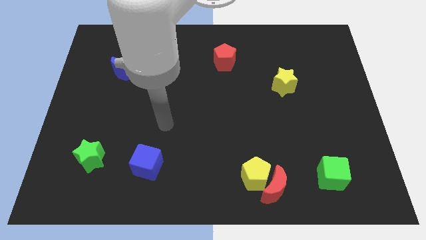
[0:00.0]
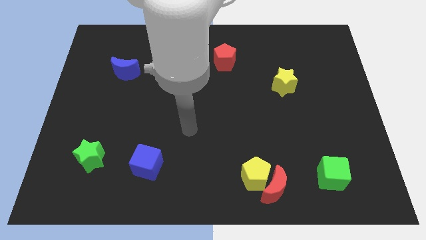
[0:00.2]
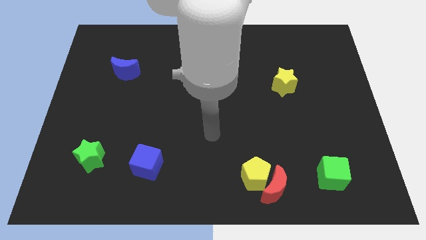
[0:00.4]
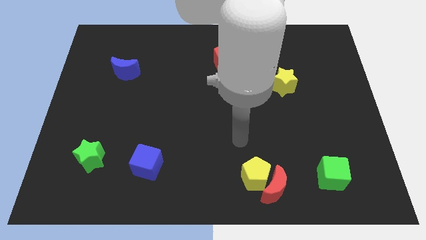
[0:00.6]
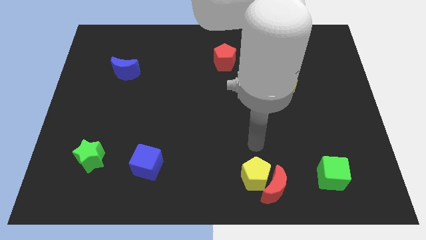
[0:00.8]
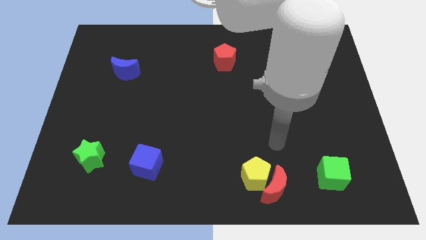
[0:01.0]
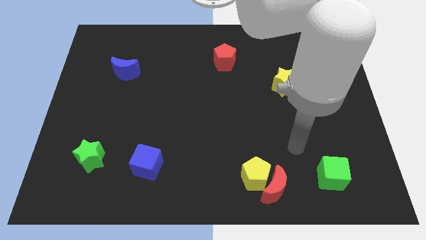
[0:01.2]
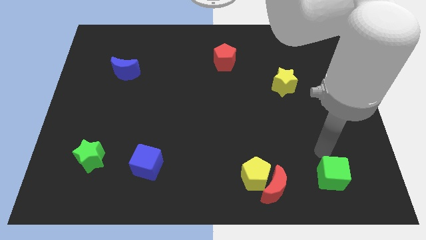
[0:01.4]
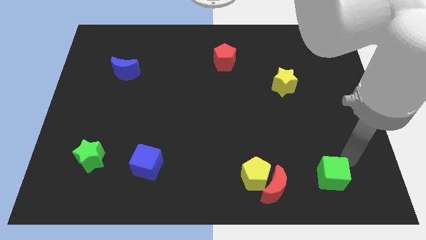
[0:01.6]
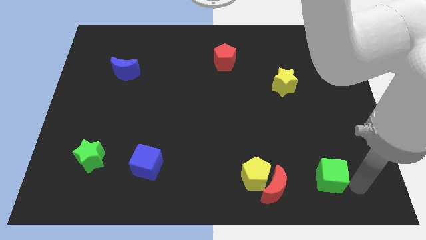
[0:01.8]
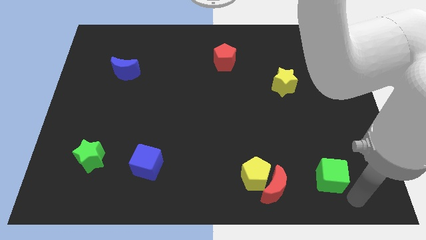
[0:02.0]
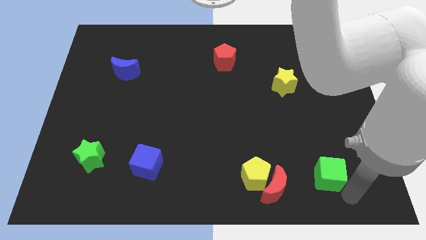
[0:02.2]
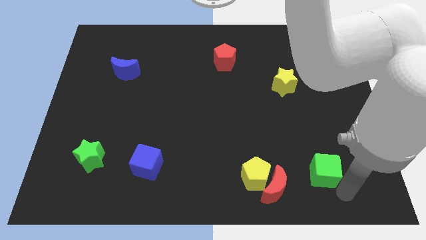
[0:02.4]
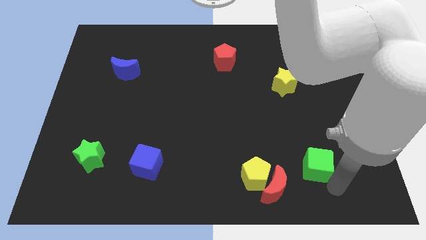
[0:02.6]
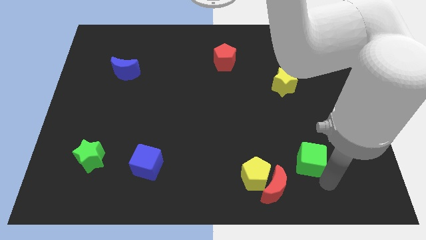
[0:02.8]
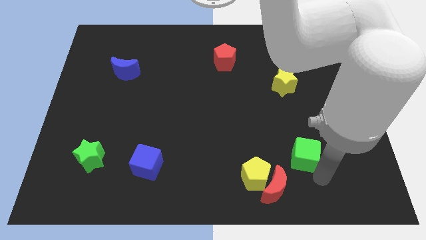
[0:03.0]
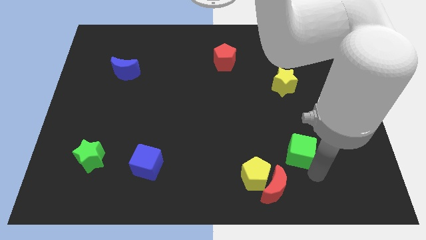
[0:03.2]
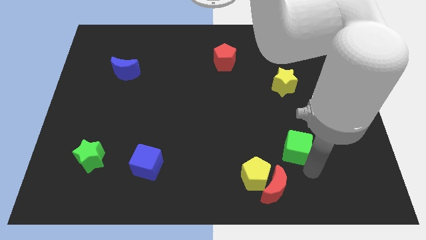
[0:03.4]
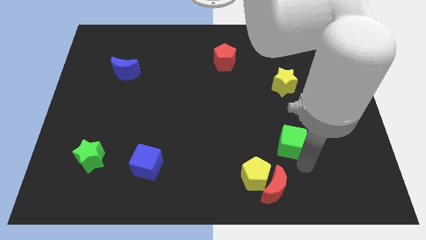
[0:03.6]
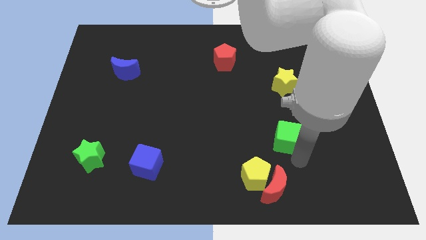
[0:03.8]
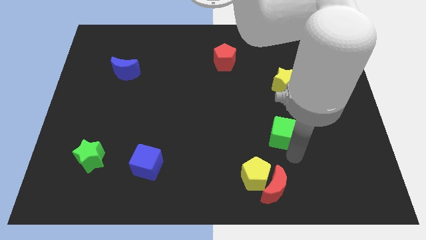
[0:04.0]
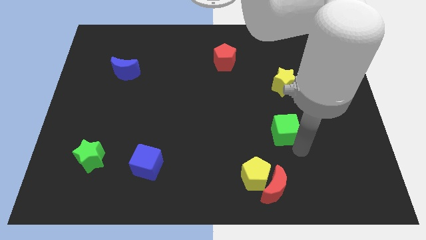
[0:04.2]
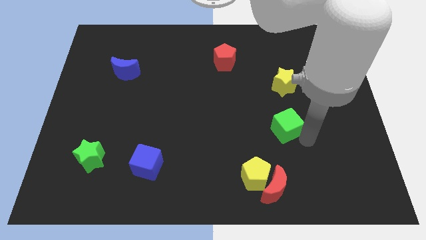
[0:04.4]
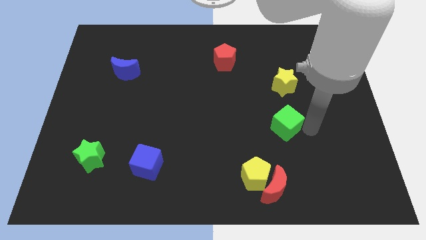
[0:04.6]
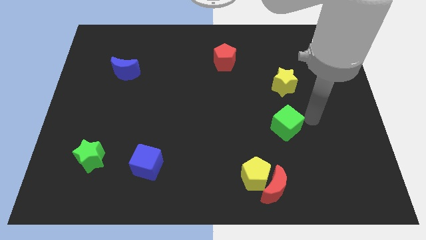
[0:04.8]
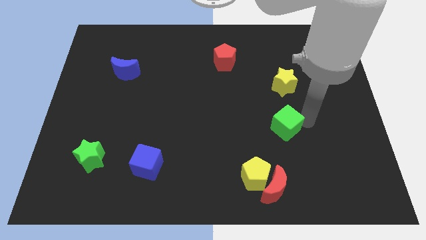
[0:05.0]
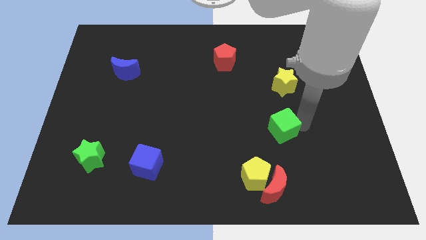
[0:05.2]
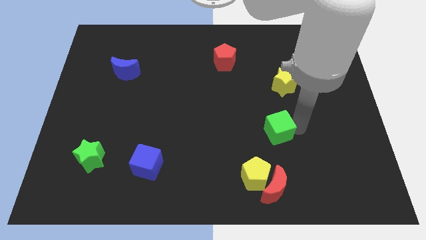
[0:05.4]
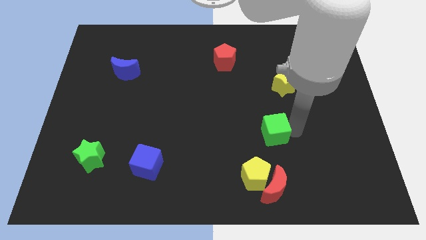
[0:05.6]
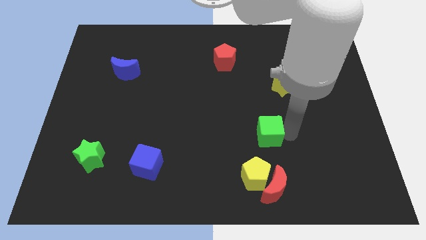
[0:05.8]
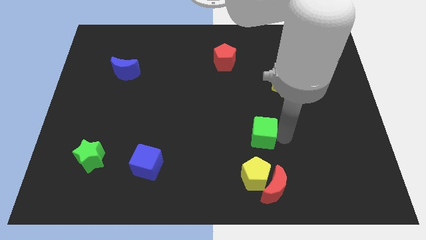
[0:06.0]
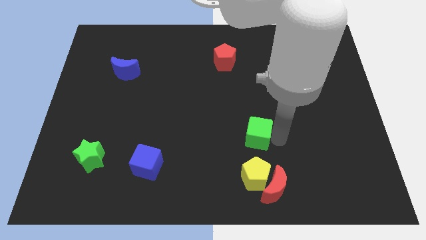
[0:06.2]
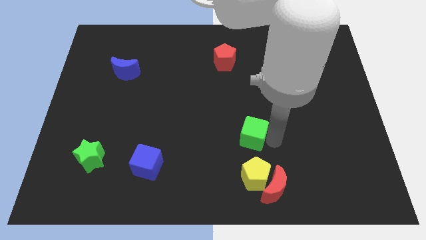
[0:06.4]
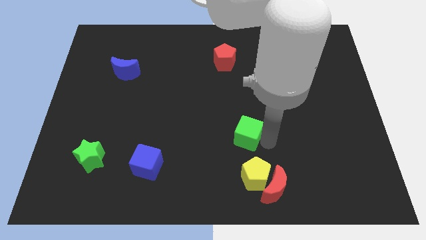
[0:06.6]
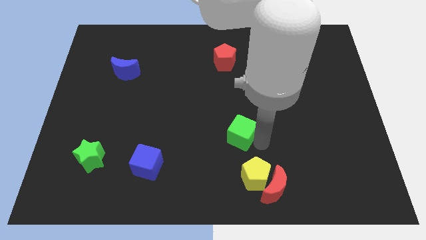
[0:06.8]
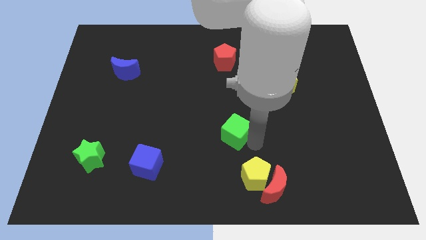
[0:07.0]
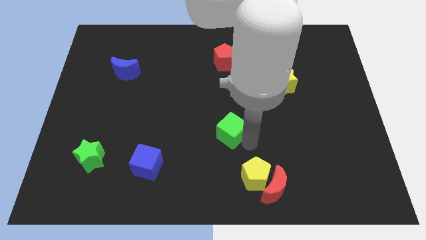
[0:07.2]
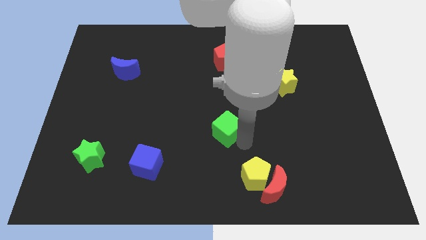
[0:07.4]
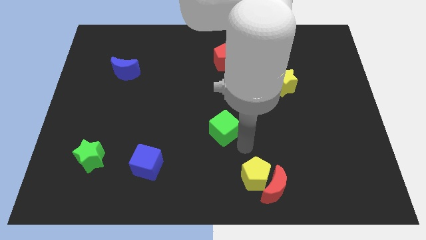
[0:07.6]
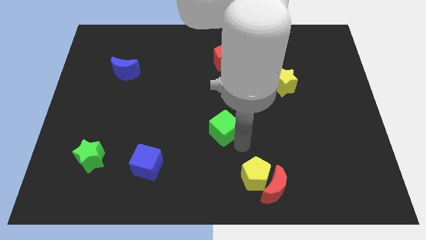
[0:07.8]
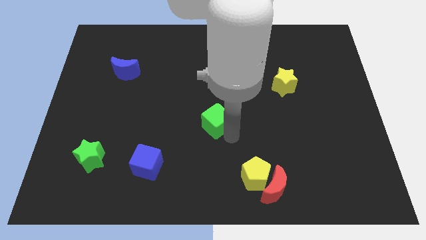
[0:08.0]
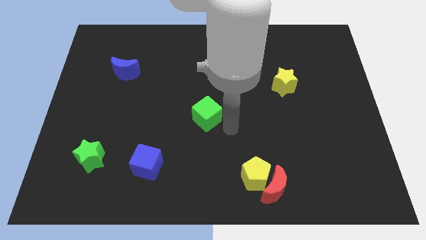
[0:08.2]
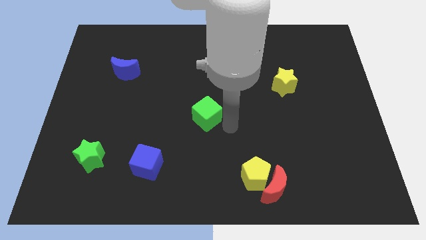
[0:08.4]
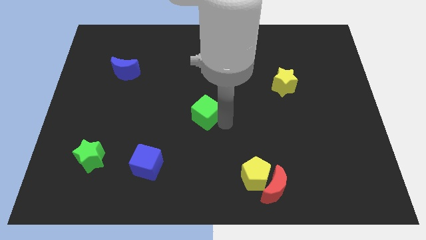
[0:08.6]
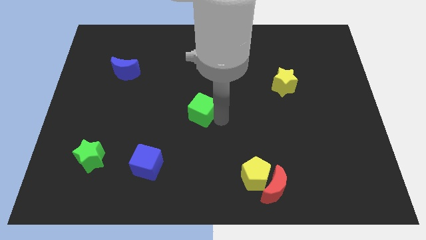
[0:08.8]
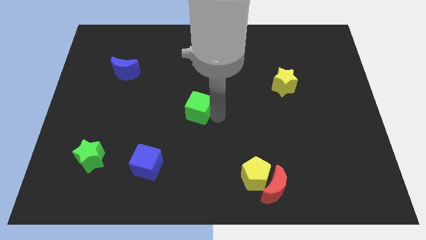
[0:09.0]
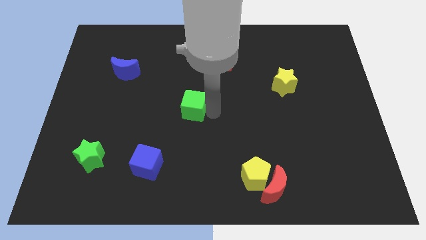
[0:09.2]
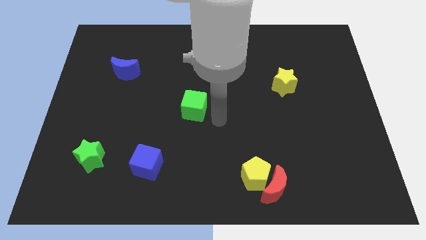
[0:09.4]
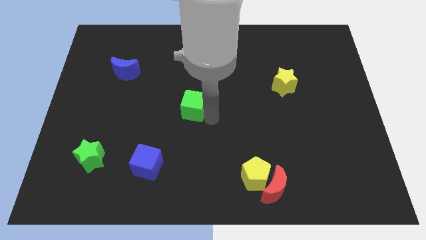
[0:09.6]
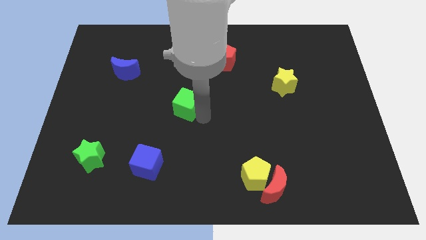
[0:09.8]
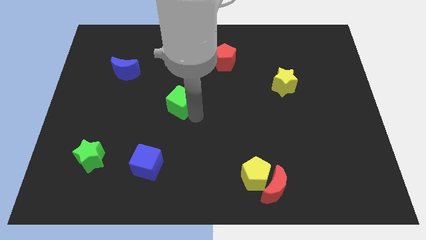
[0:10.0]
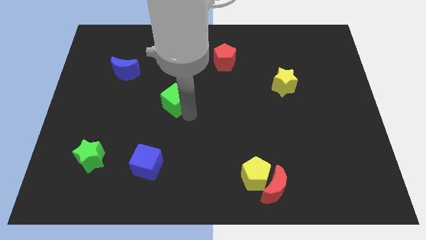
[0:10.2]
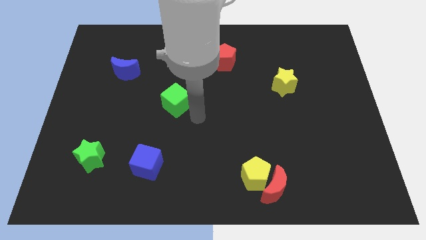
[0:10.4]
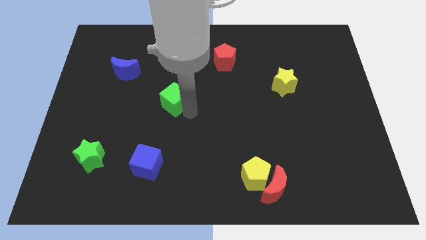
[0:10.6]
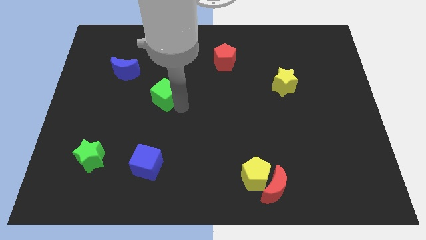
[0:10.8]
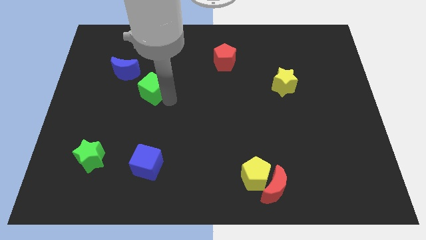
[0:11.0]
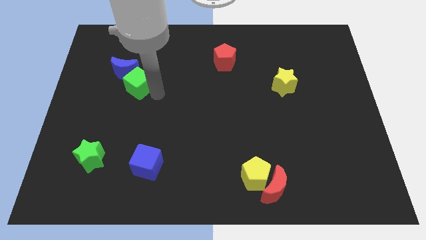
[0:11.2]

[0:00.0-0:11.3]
push the green cube towards the blue moon

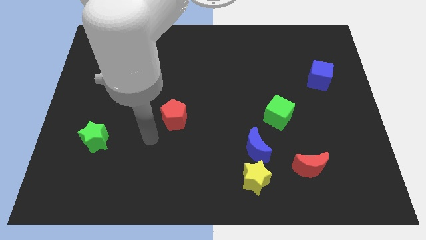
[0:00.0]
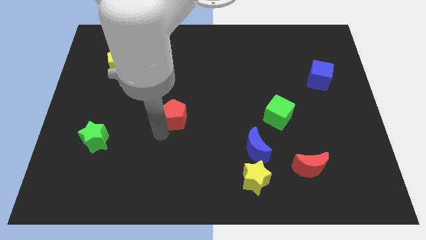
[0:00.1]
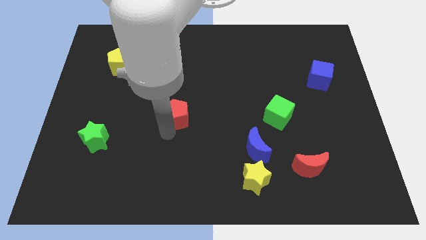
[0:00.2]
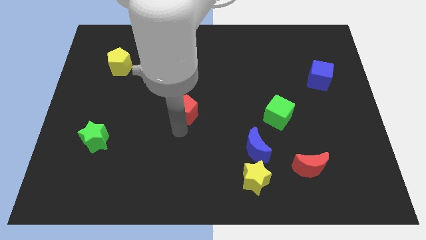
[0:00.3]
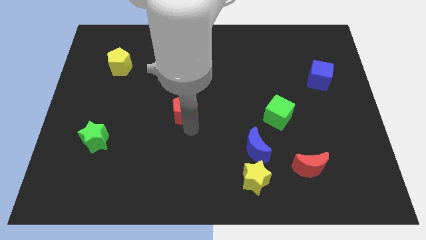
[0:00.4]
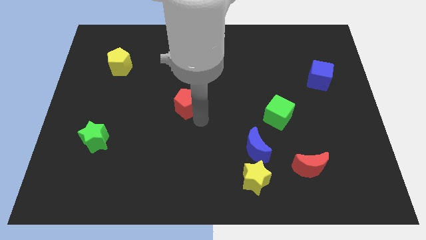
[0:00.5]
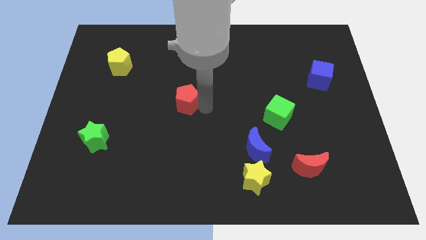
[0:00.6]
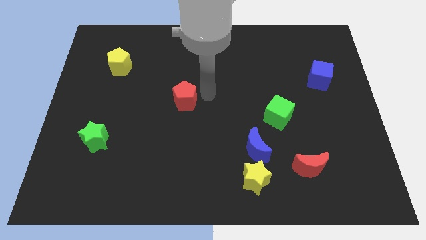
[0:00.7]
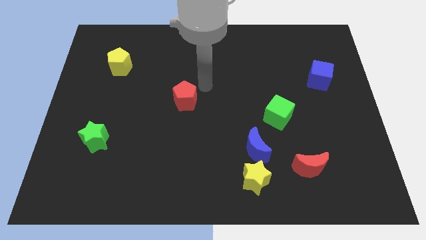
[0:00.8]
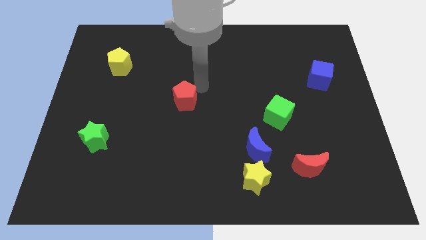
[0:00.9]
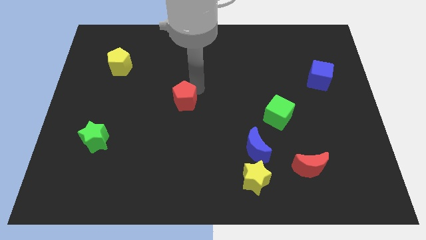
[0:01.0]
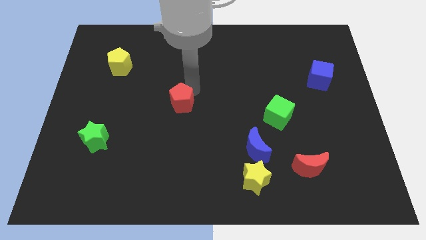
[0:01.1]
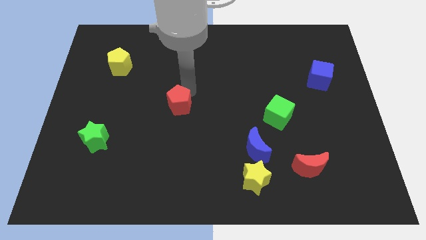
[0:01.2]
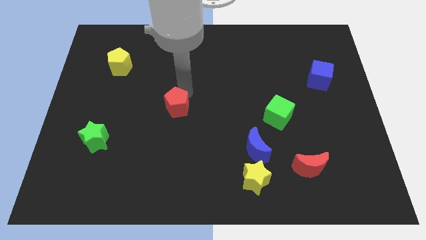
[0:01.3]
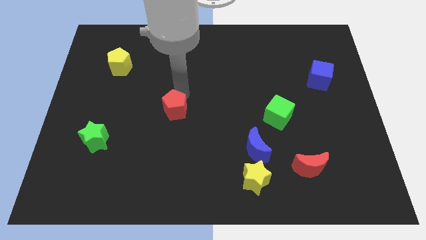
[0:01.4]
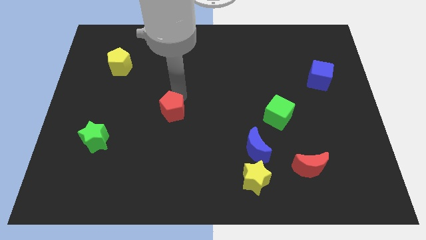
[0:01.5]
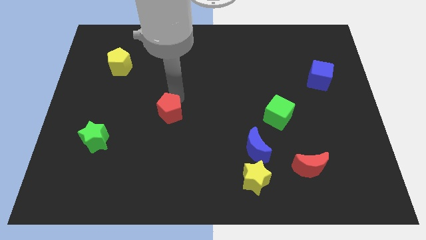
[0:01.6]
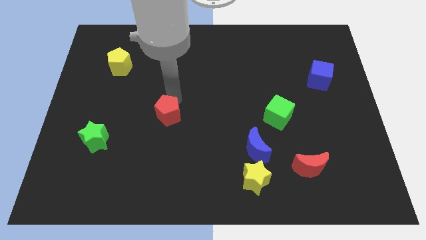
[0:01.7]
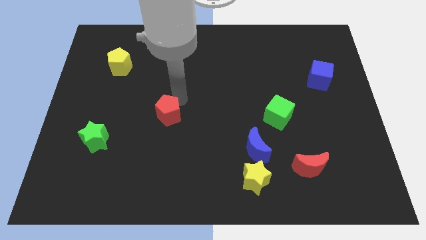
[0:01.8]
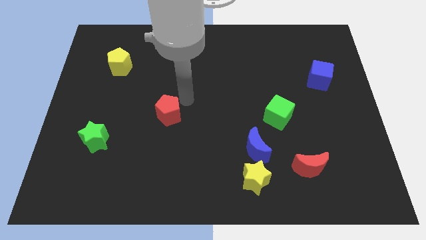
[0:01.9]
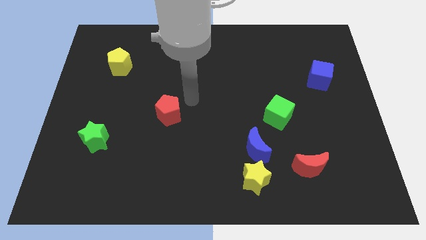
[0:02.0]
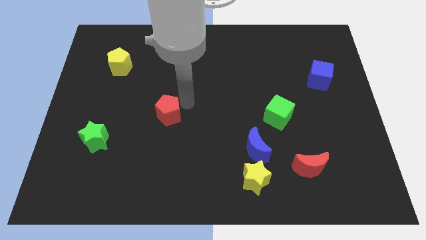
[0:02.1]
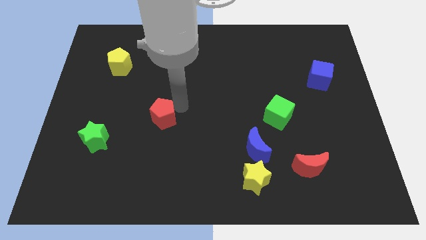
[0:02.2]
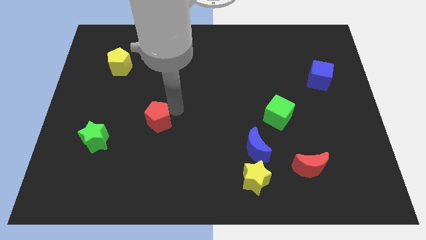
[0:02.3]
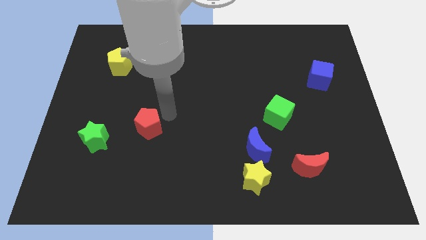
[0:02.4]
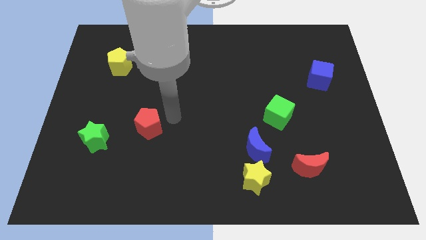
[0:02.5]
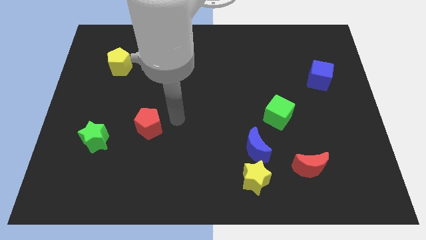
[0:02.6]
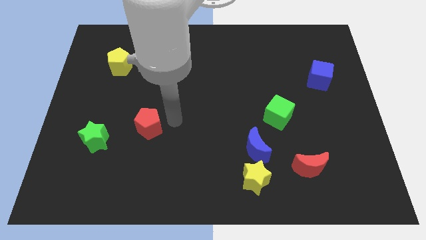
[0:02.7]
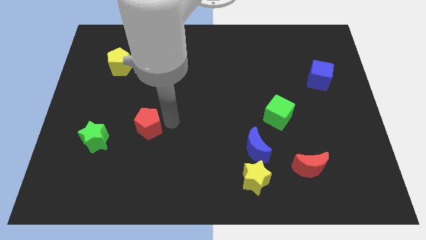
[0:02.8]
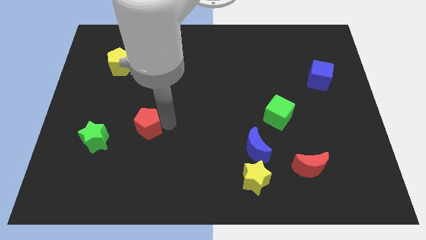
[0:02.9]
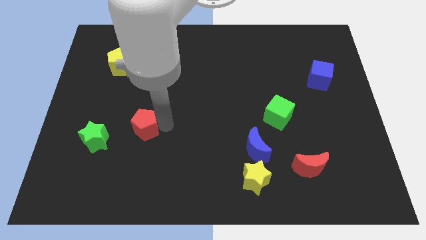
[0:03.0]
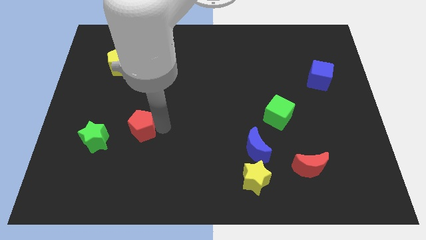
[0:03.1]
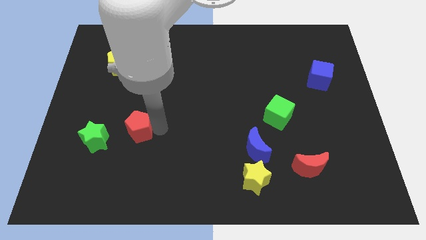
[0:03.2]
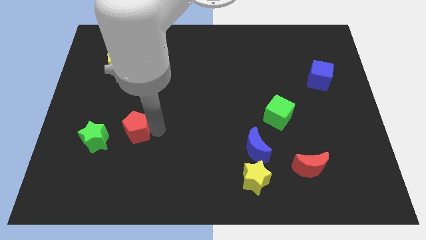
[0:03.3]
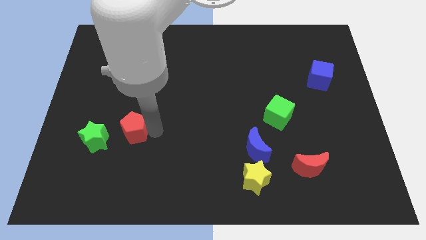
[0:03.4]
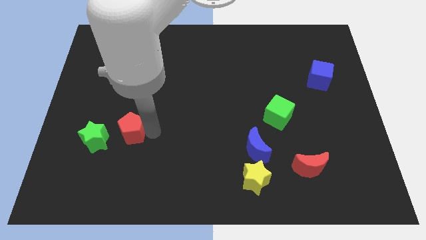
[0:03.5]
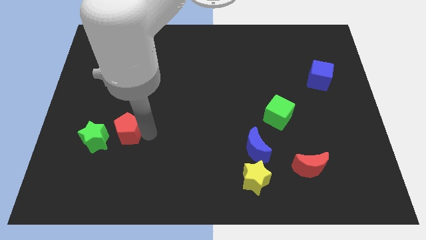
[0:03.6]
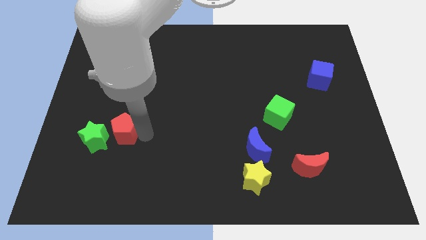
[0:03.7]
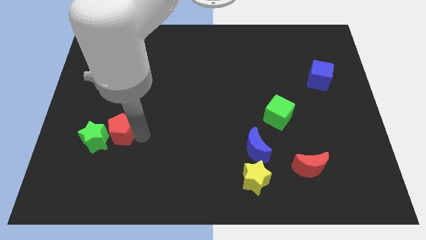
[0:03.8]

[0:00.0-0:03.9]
move the red pentagon to the green star
